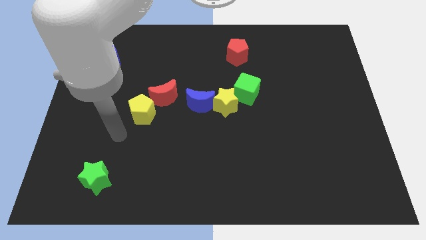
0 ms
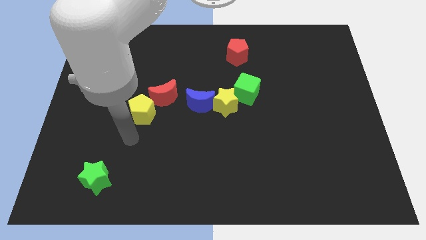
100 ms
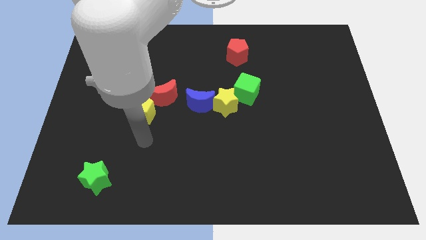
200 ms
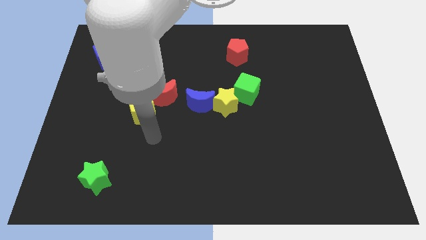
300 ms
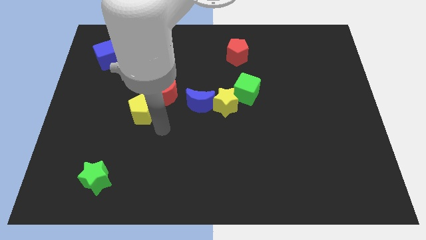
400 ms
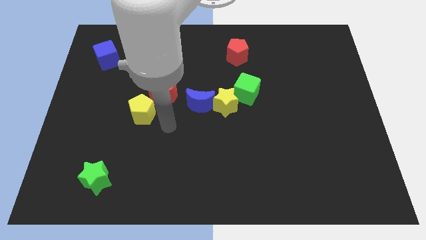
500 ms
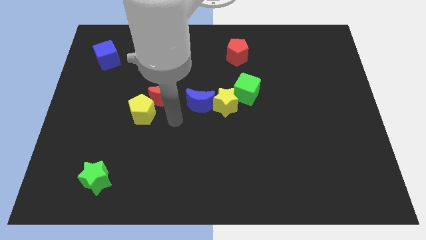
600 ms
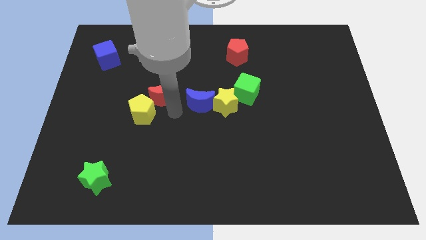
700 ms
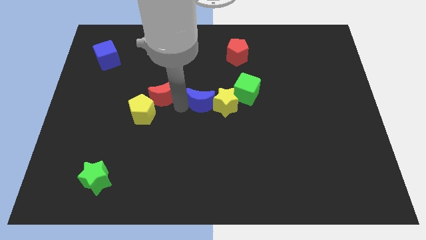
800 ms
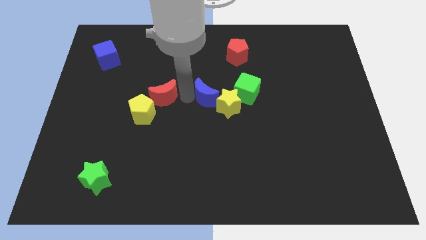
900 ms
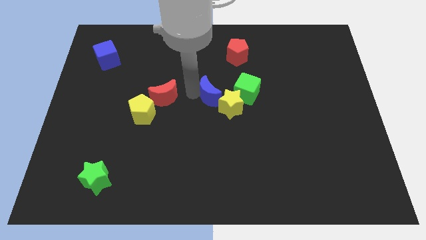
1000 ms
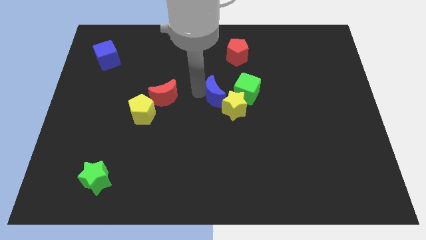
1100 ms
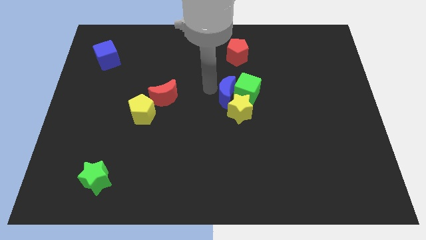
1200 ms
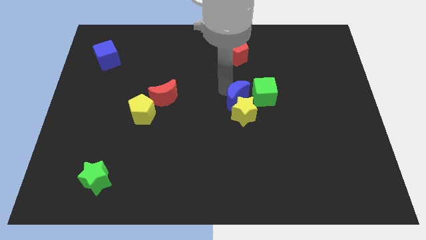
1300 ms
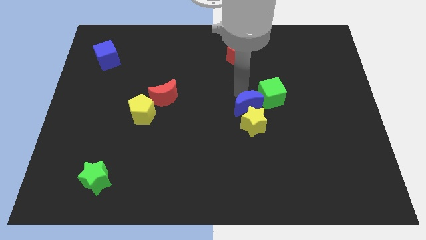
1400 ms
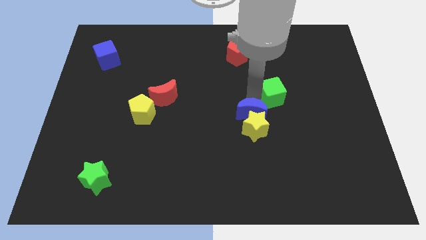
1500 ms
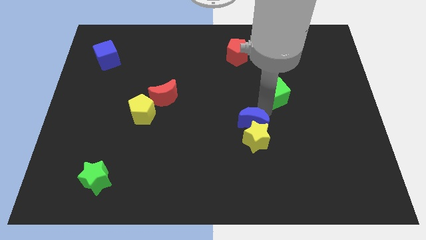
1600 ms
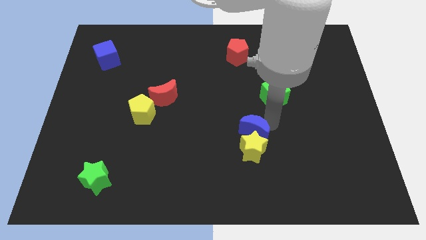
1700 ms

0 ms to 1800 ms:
separate the yellow star from the blue moon and green cube

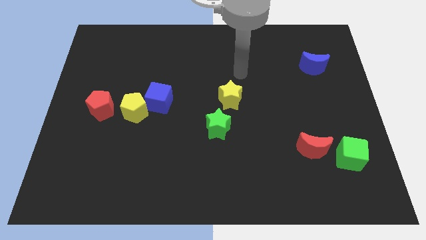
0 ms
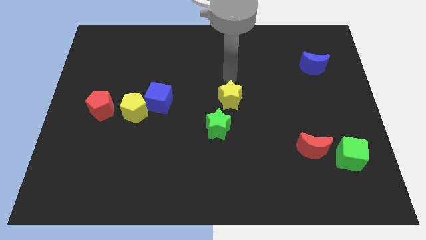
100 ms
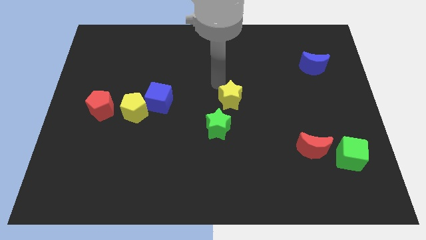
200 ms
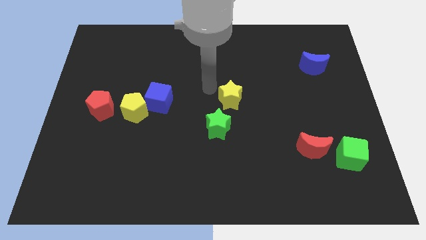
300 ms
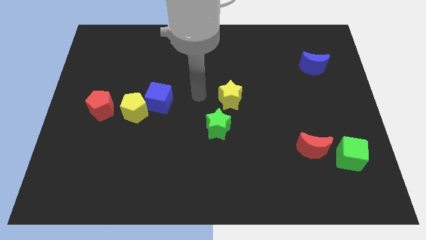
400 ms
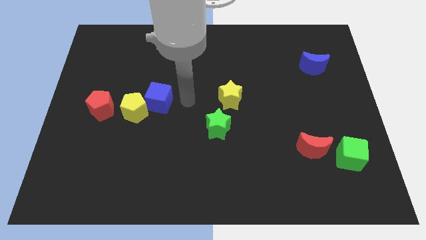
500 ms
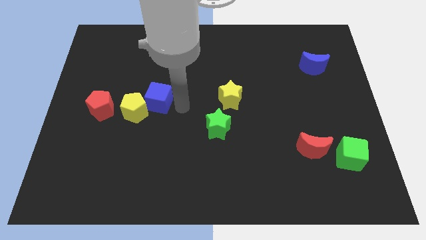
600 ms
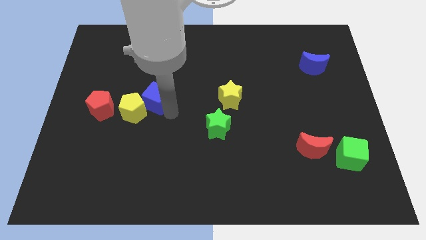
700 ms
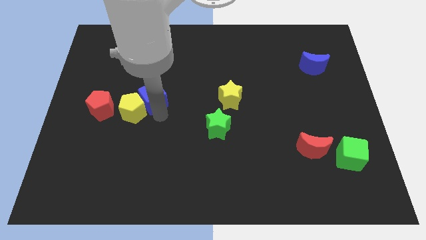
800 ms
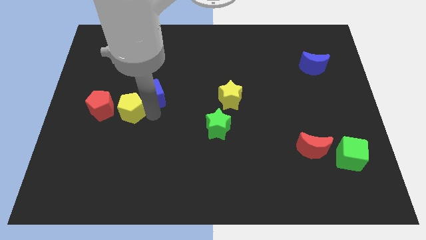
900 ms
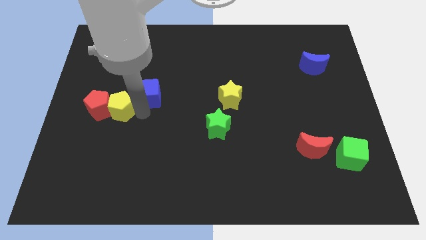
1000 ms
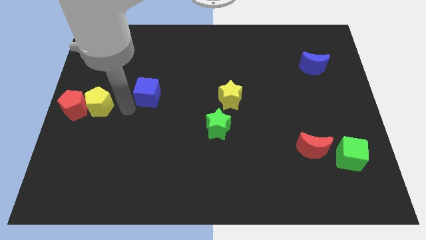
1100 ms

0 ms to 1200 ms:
pull the blue cube apart from the yellow pentagon

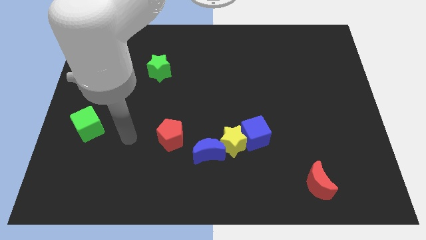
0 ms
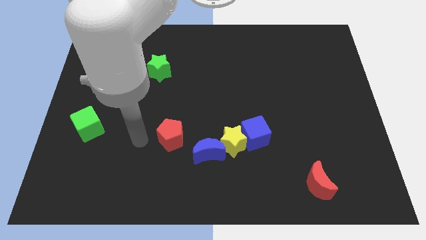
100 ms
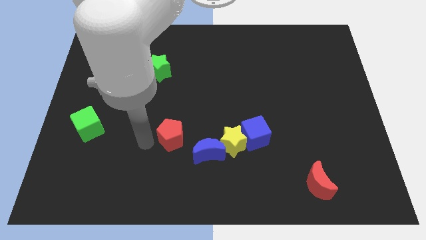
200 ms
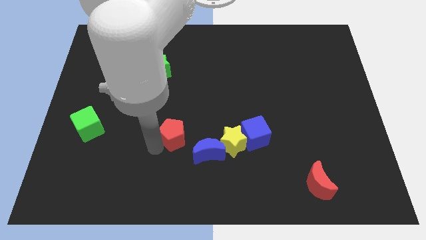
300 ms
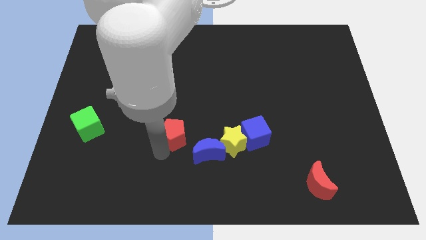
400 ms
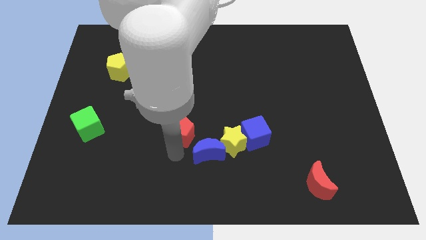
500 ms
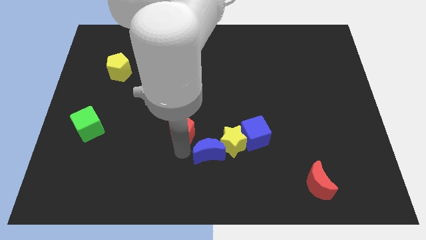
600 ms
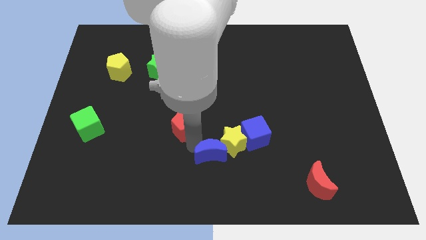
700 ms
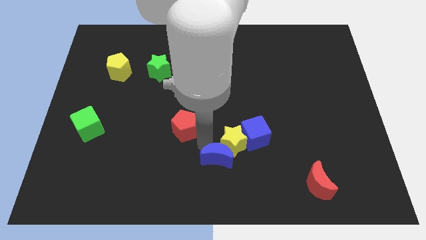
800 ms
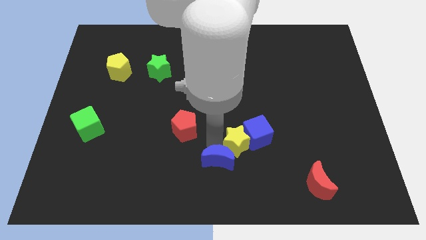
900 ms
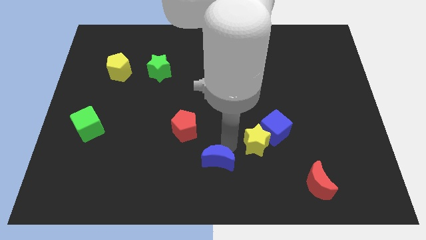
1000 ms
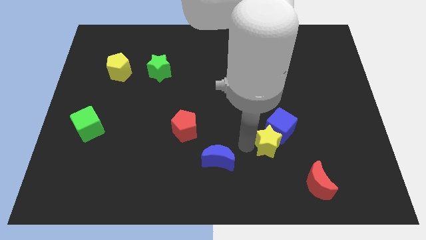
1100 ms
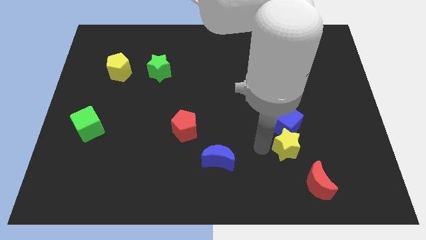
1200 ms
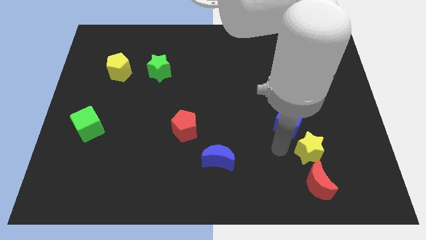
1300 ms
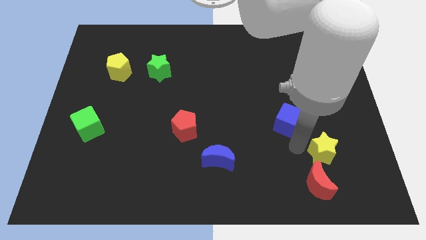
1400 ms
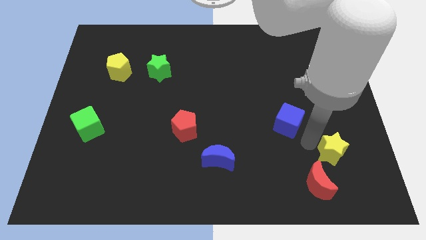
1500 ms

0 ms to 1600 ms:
pull the blue cube apart from the yellow star

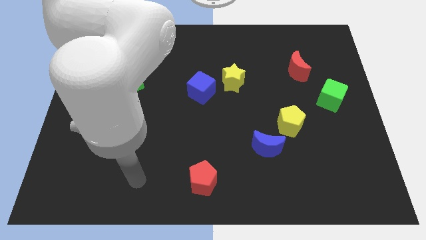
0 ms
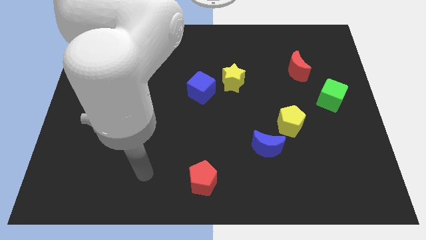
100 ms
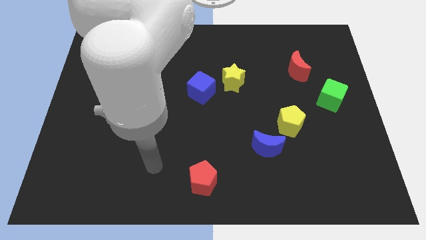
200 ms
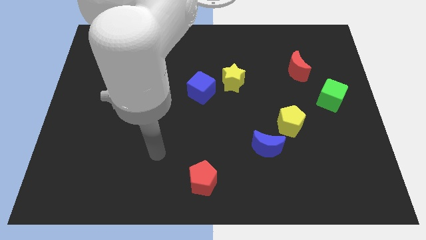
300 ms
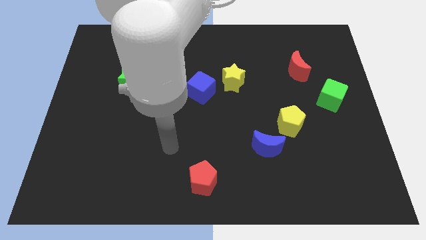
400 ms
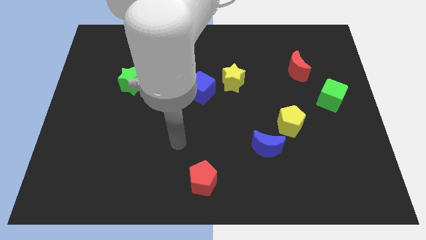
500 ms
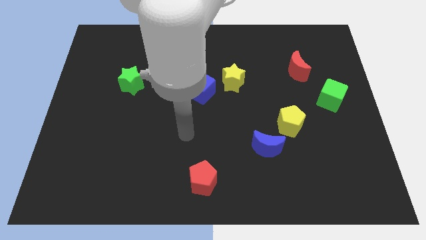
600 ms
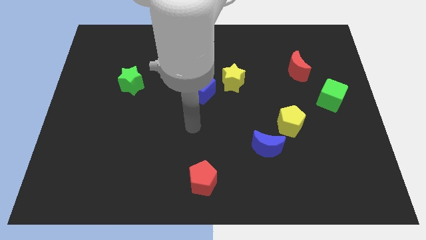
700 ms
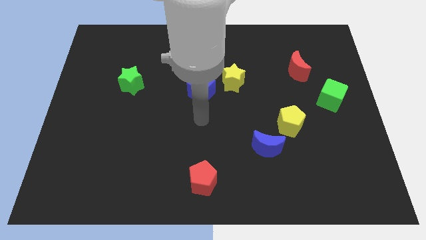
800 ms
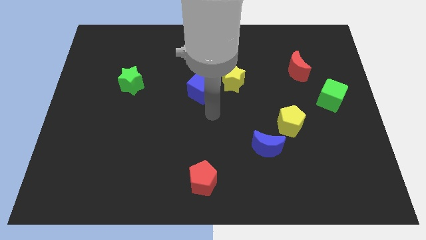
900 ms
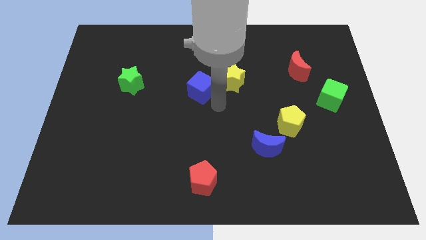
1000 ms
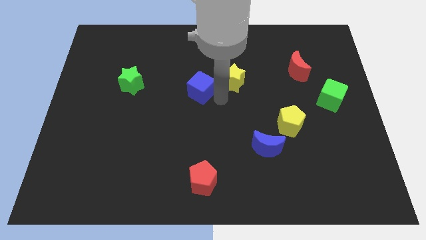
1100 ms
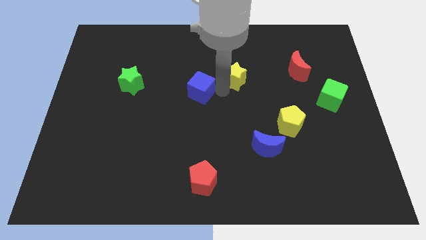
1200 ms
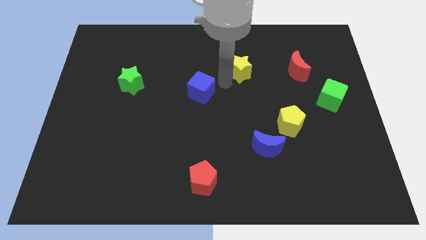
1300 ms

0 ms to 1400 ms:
move the blue cube away from the yellow star

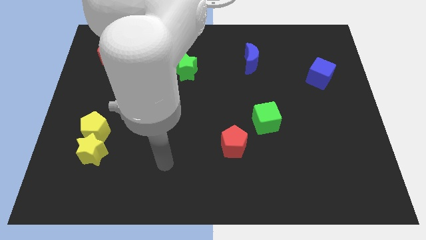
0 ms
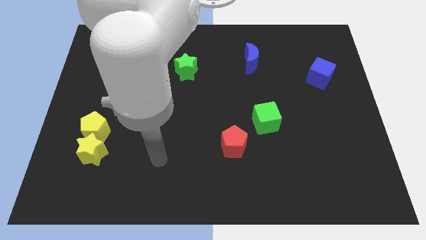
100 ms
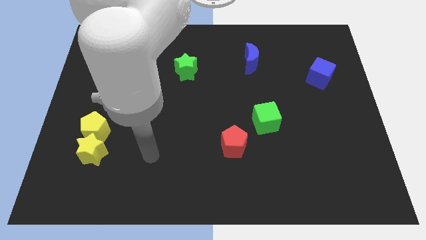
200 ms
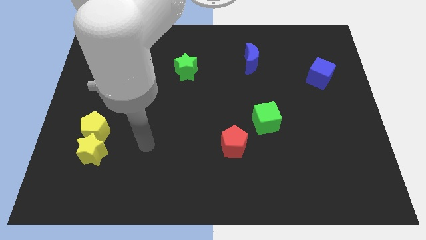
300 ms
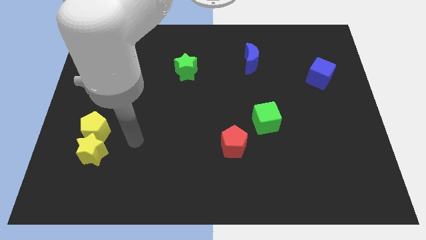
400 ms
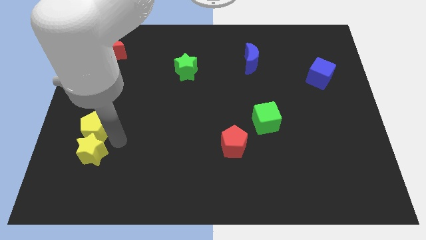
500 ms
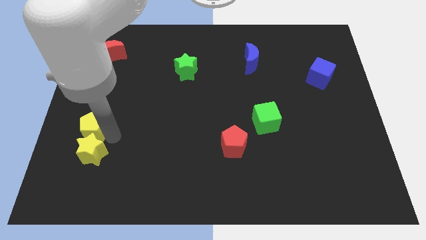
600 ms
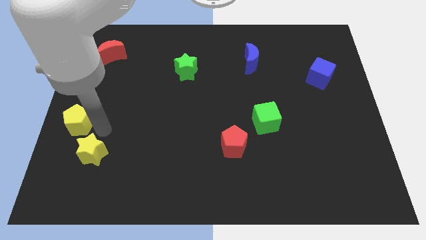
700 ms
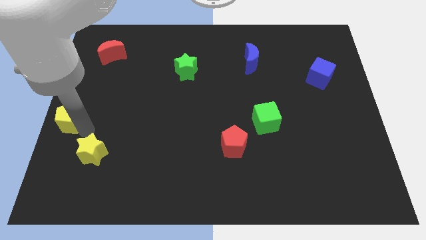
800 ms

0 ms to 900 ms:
pull the yellow star apart from the yellow pentagon

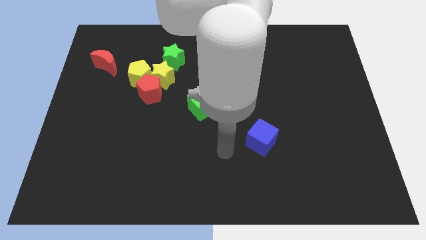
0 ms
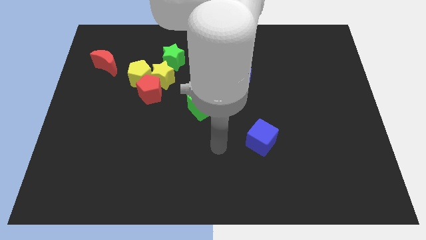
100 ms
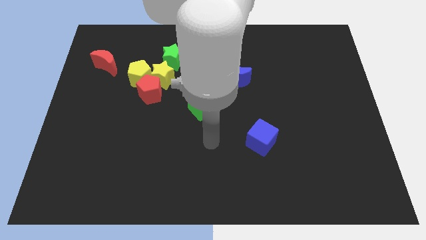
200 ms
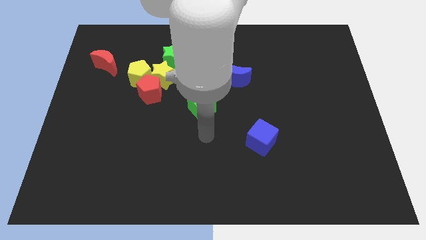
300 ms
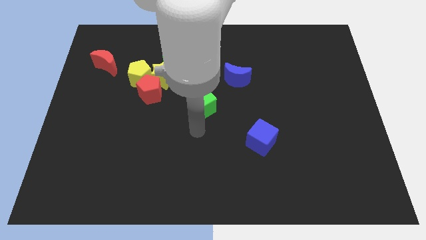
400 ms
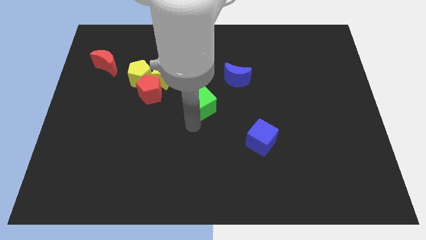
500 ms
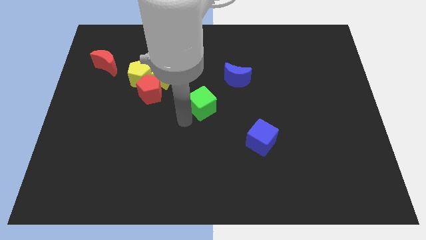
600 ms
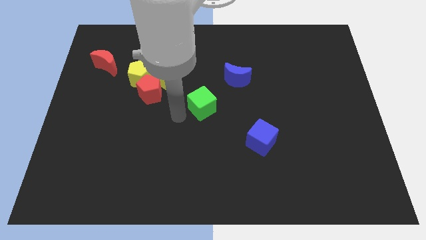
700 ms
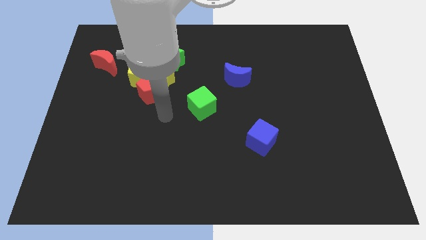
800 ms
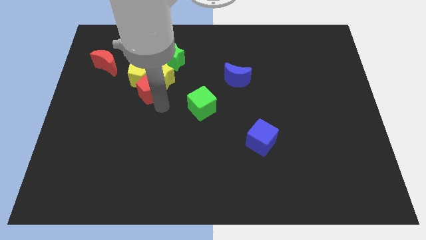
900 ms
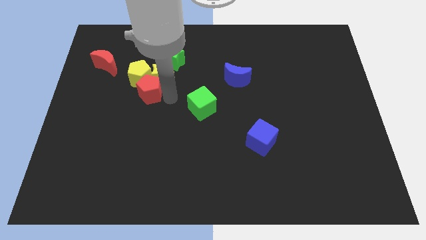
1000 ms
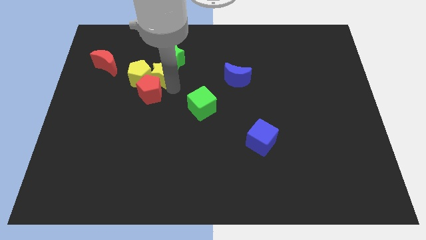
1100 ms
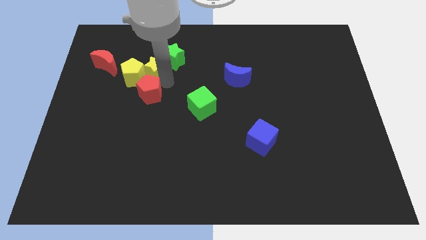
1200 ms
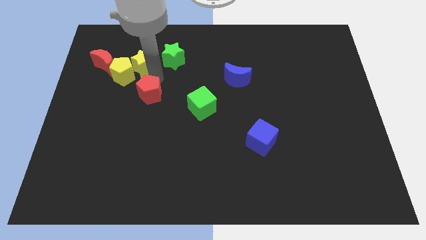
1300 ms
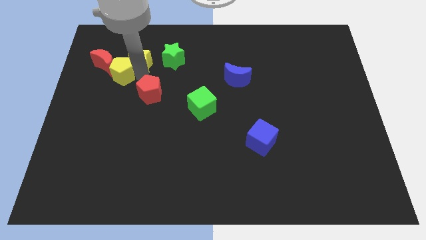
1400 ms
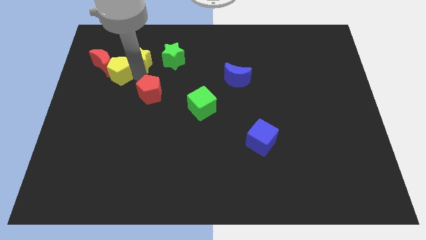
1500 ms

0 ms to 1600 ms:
separate the red pentagon from the yellow star and yellow pentagon

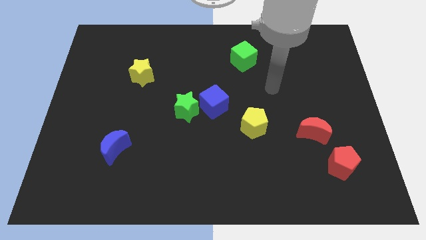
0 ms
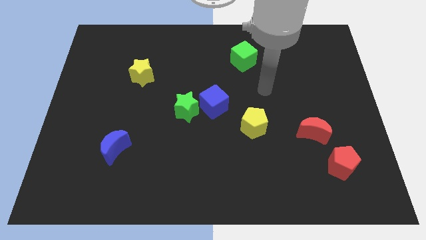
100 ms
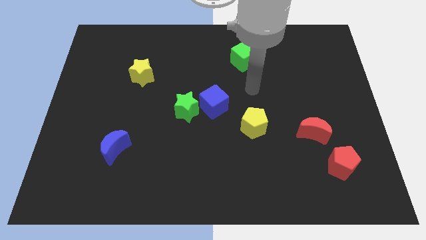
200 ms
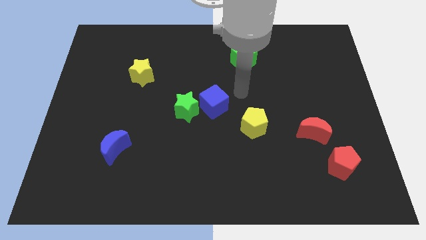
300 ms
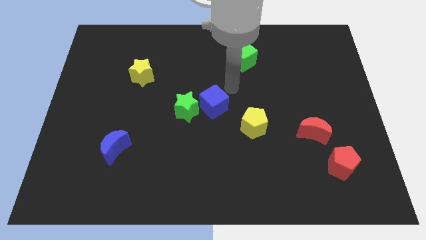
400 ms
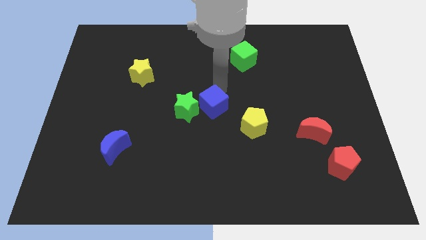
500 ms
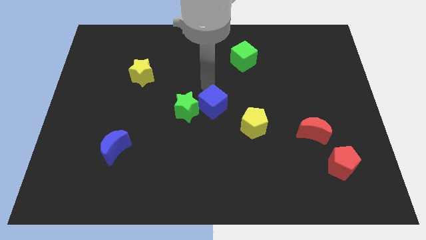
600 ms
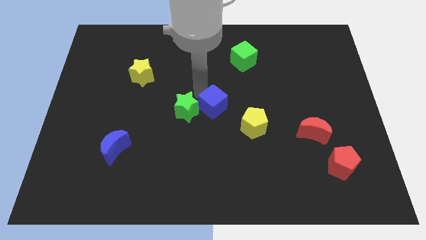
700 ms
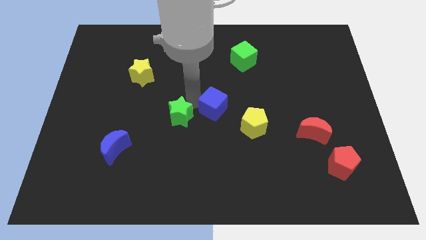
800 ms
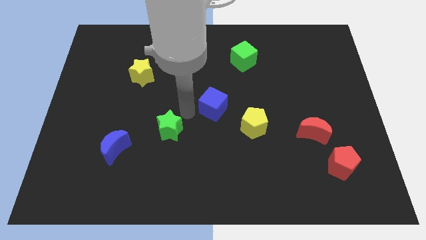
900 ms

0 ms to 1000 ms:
pull the blue cube apart from the green star
